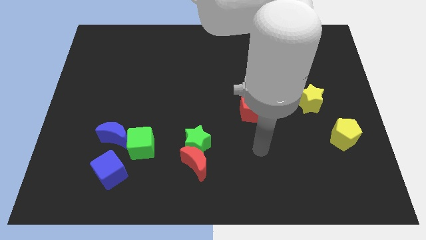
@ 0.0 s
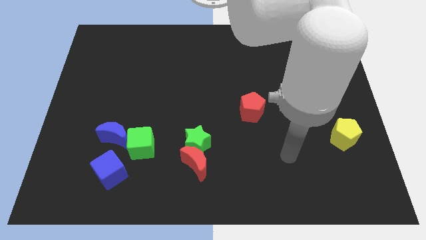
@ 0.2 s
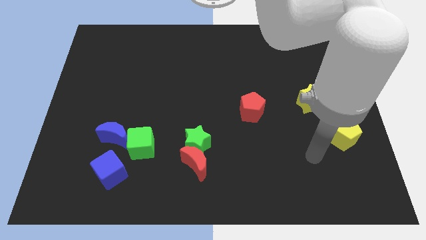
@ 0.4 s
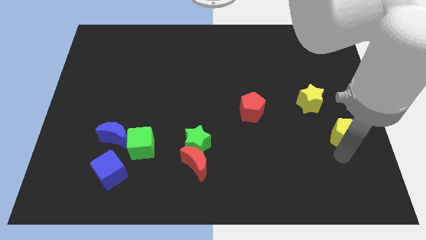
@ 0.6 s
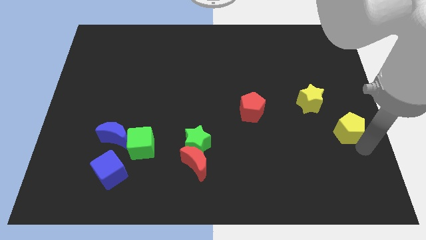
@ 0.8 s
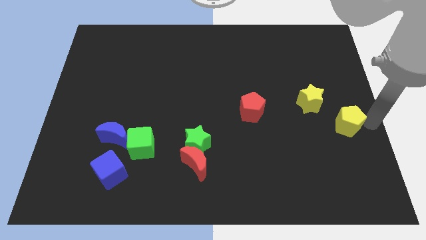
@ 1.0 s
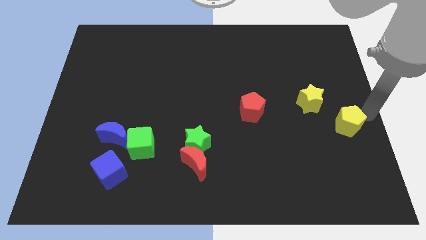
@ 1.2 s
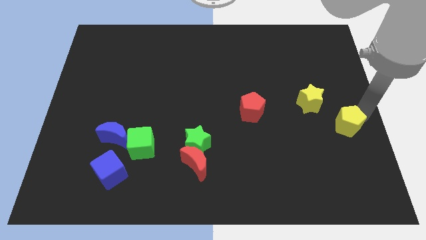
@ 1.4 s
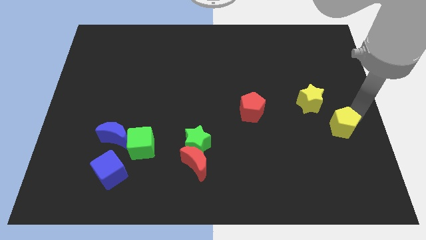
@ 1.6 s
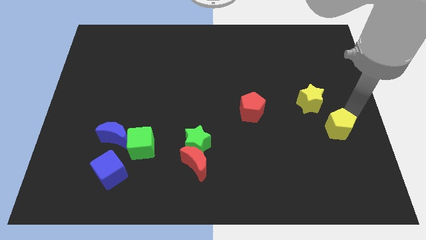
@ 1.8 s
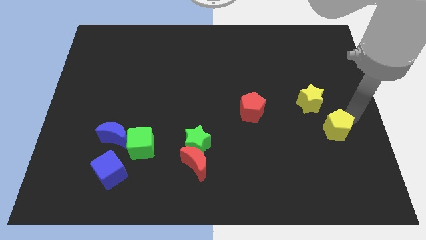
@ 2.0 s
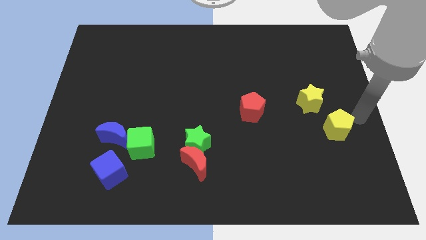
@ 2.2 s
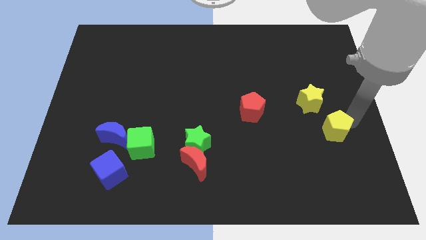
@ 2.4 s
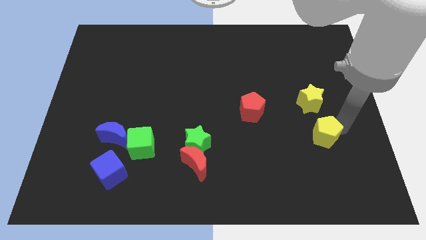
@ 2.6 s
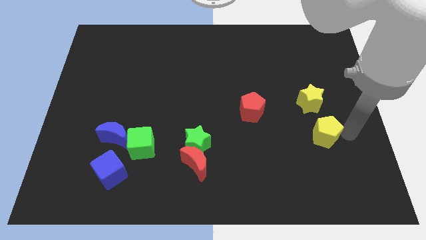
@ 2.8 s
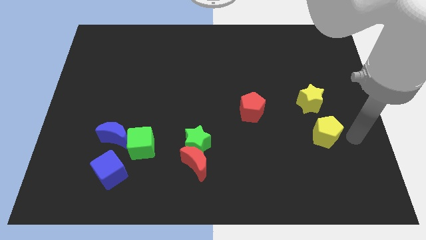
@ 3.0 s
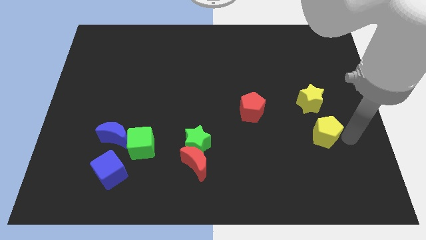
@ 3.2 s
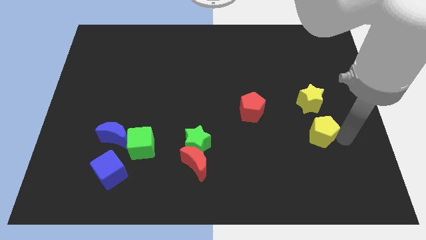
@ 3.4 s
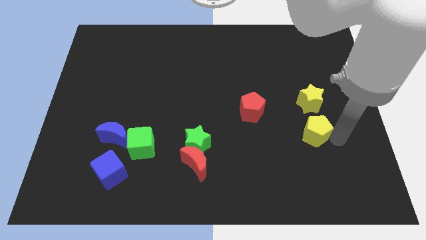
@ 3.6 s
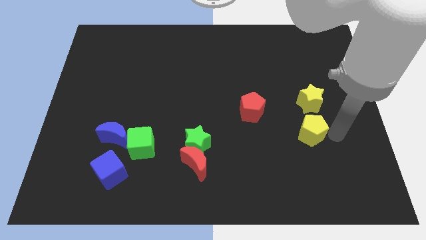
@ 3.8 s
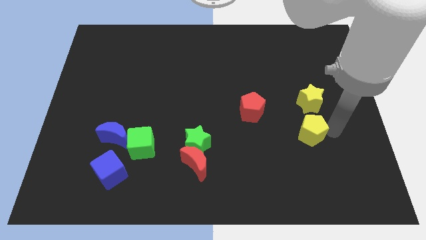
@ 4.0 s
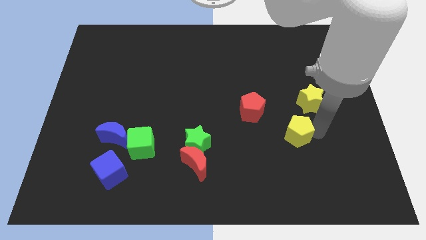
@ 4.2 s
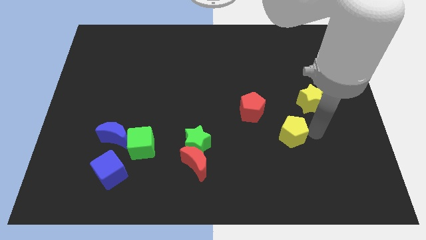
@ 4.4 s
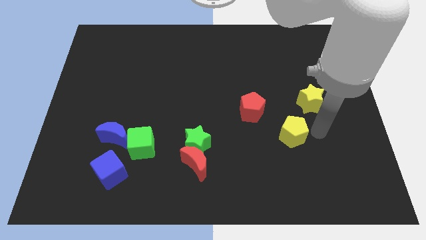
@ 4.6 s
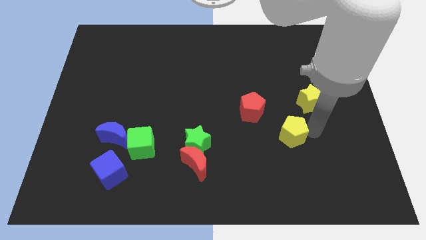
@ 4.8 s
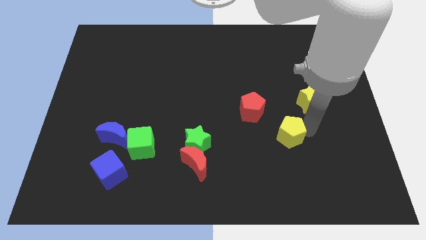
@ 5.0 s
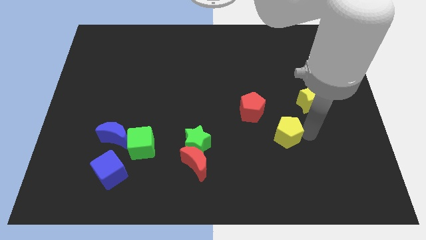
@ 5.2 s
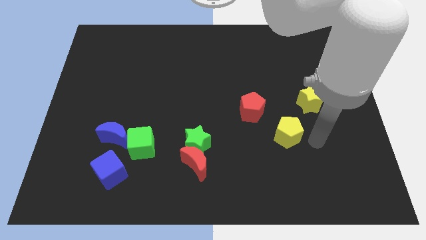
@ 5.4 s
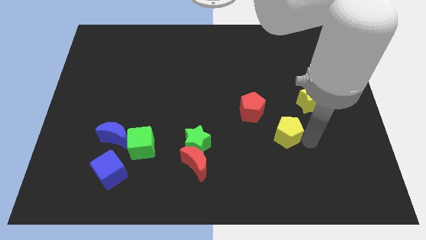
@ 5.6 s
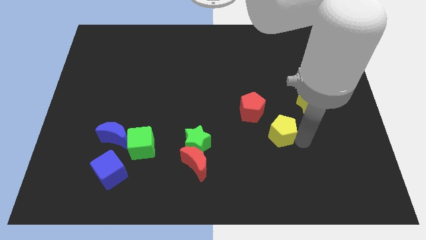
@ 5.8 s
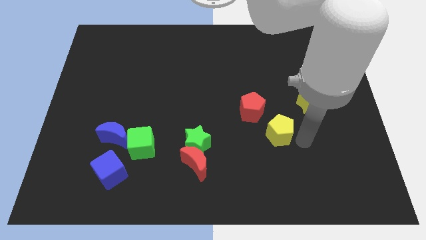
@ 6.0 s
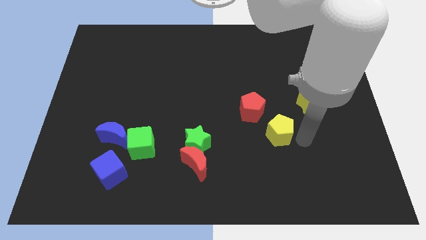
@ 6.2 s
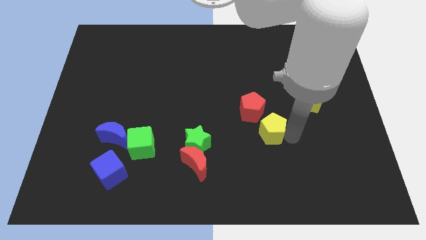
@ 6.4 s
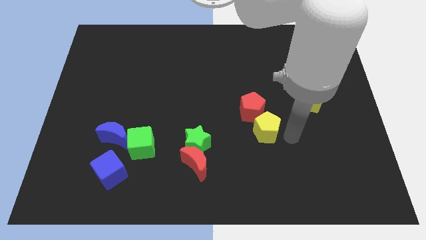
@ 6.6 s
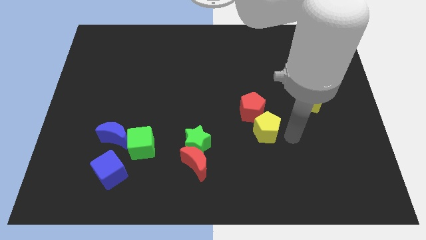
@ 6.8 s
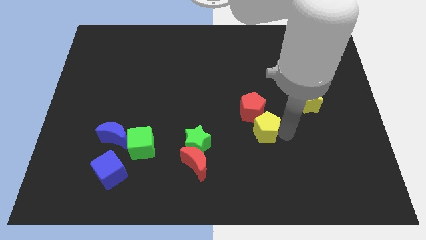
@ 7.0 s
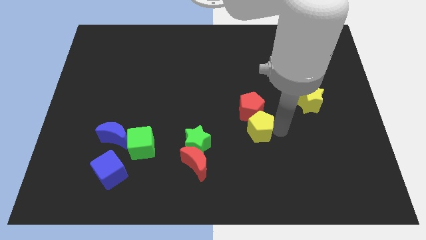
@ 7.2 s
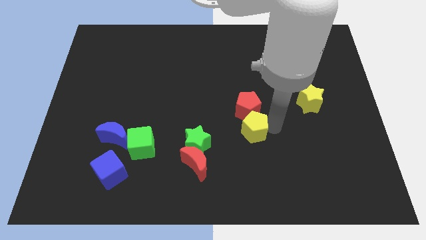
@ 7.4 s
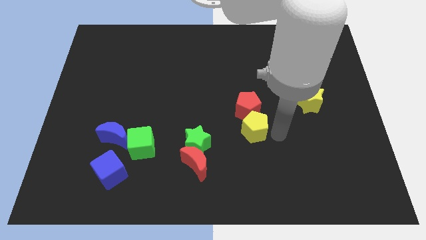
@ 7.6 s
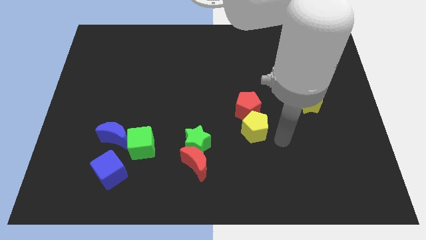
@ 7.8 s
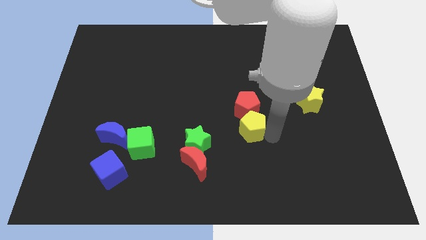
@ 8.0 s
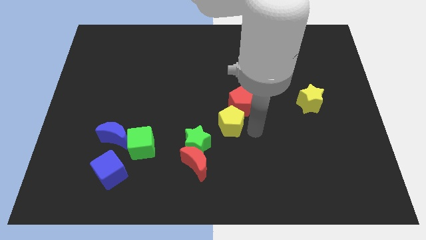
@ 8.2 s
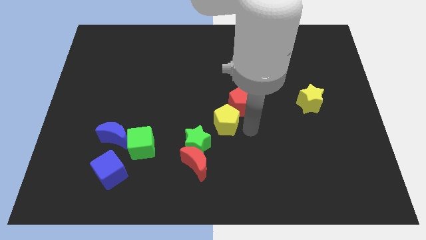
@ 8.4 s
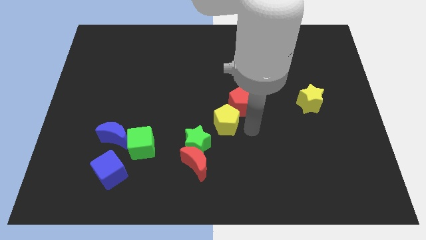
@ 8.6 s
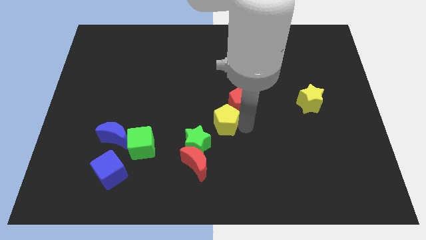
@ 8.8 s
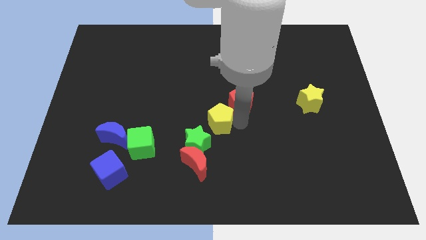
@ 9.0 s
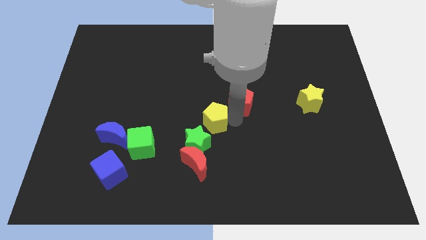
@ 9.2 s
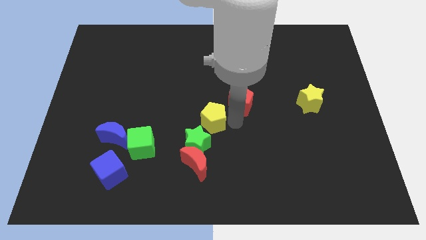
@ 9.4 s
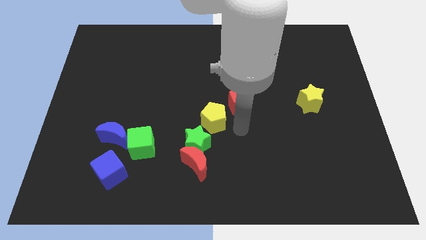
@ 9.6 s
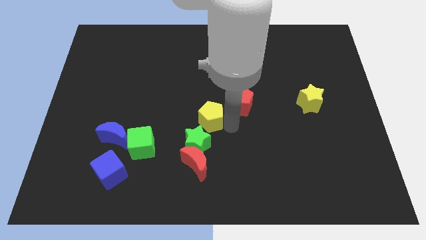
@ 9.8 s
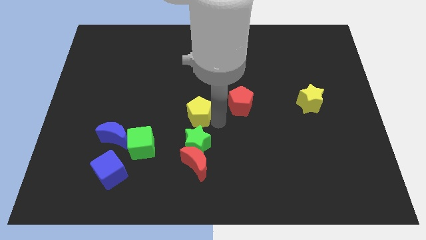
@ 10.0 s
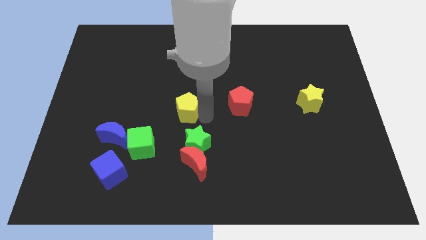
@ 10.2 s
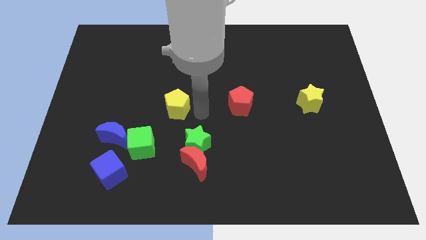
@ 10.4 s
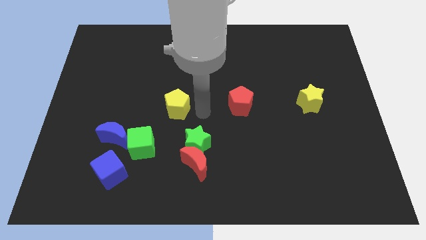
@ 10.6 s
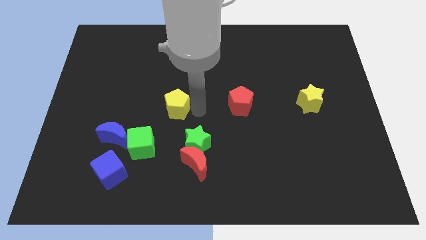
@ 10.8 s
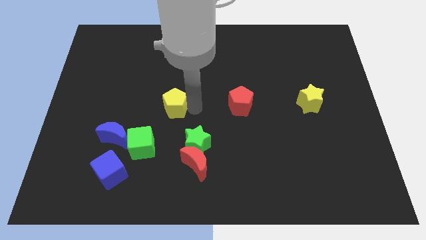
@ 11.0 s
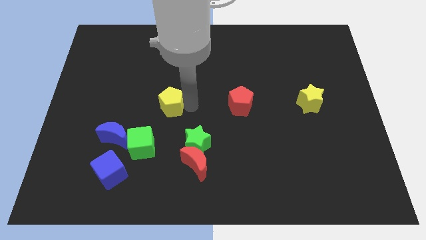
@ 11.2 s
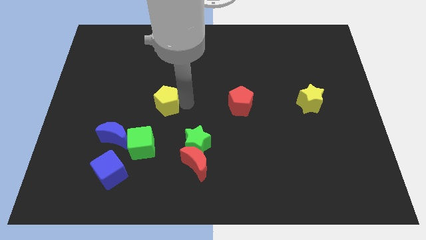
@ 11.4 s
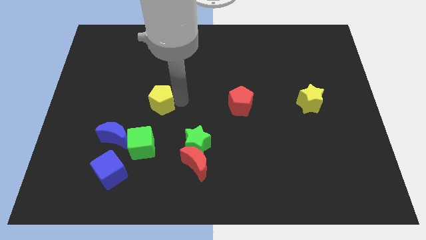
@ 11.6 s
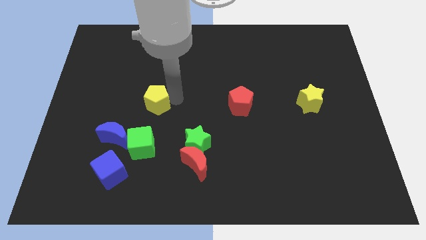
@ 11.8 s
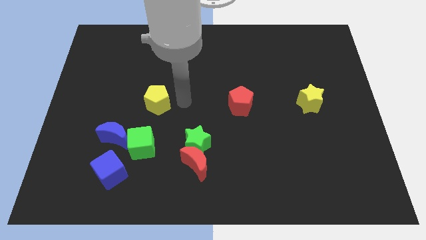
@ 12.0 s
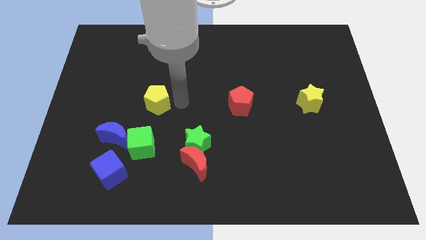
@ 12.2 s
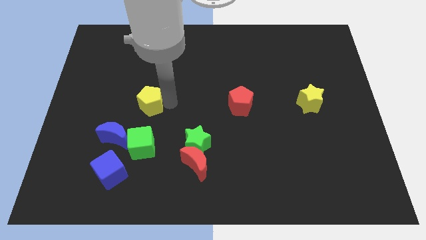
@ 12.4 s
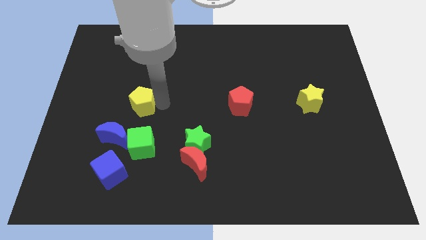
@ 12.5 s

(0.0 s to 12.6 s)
put the yellow pentagon above the blue moon

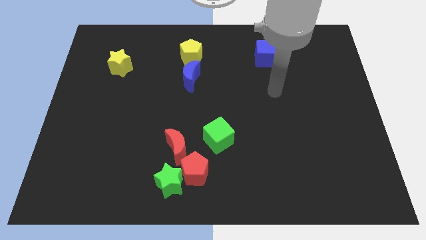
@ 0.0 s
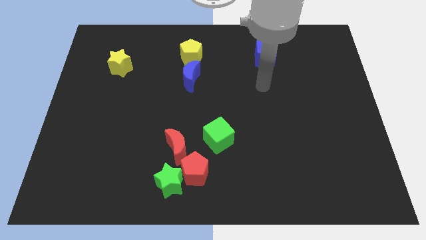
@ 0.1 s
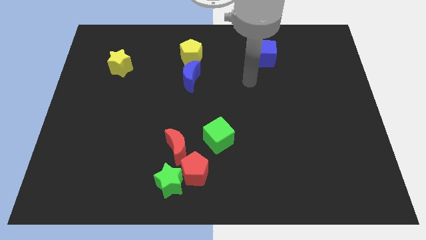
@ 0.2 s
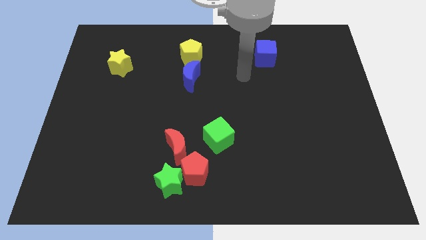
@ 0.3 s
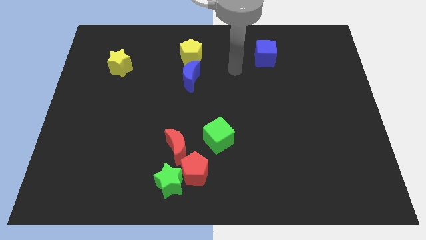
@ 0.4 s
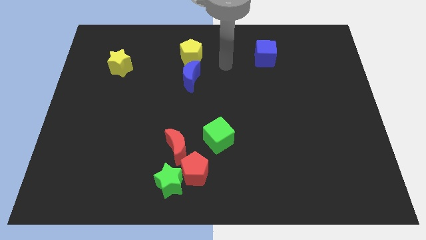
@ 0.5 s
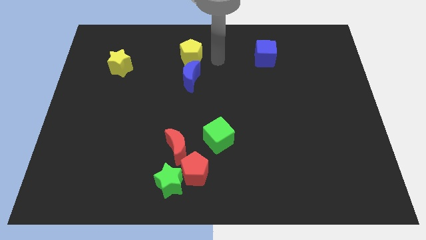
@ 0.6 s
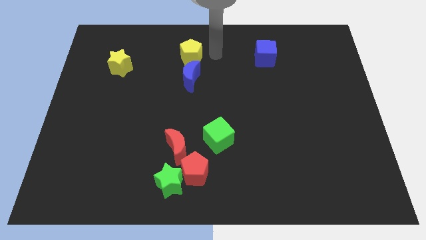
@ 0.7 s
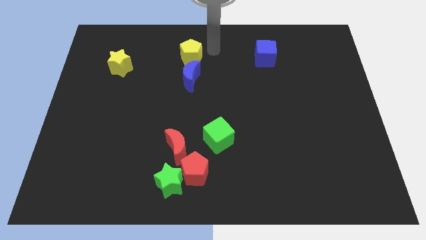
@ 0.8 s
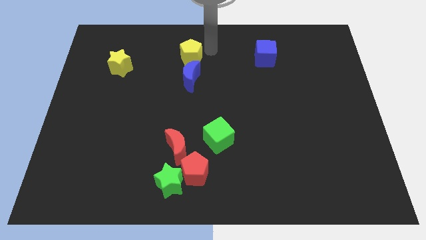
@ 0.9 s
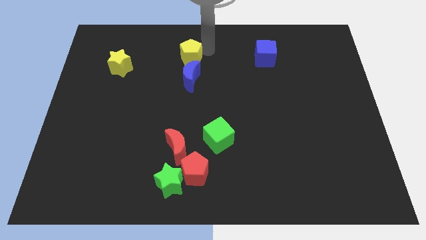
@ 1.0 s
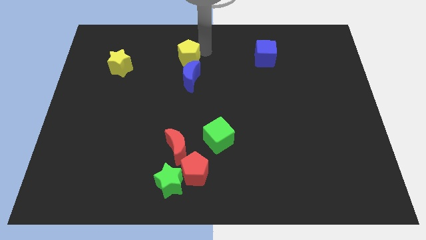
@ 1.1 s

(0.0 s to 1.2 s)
push the yellow pentagon to the top left side of the blue moon
